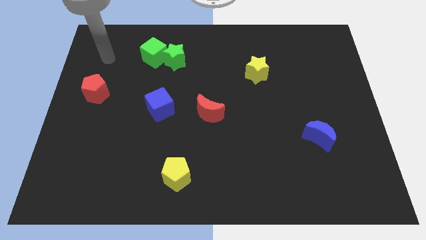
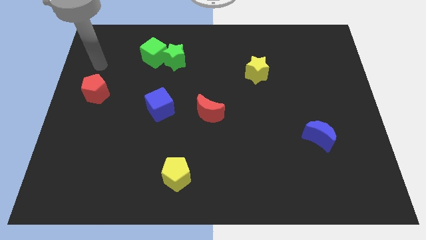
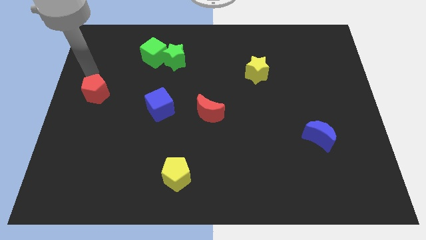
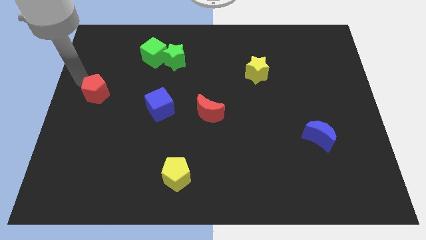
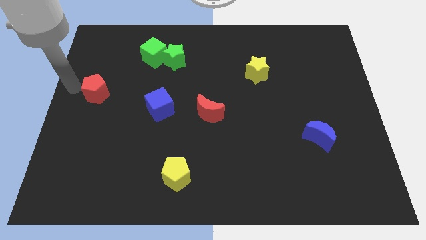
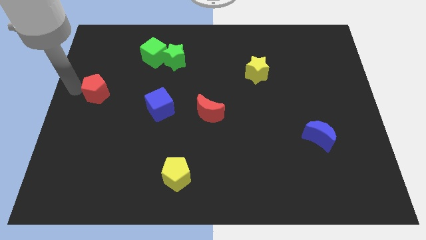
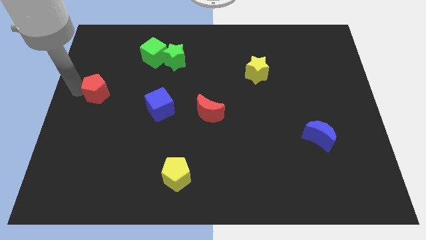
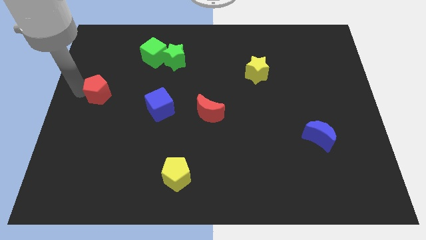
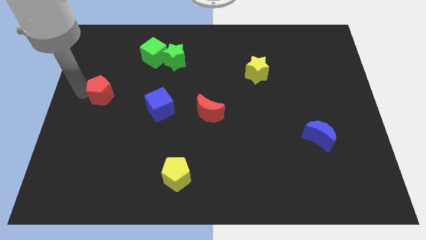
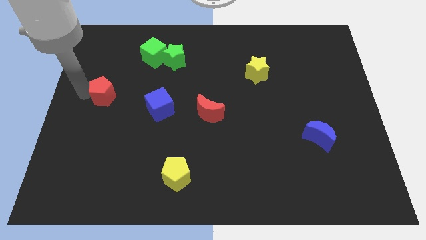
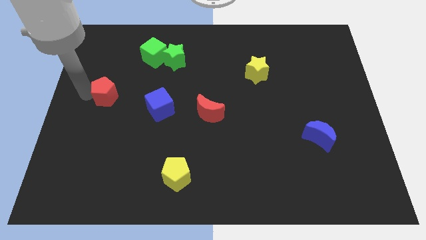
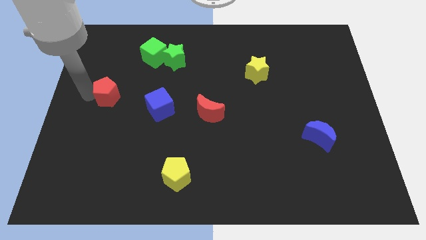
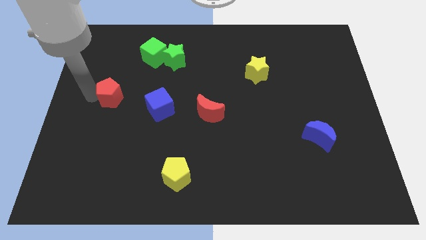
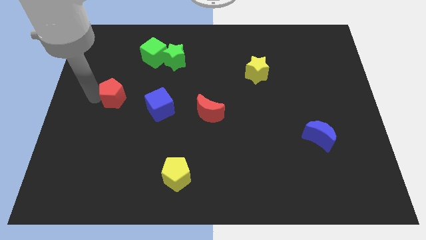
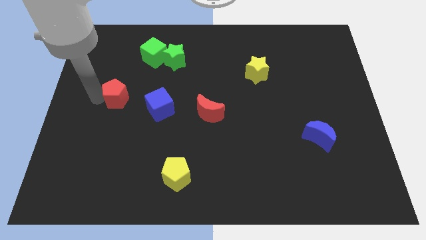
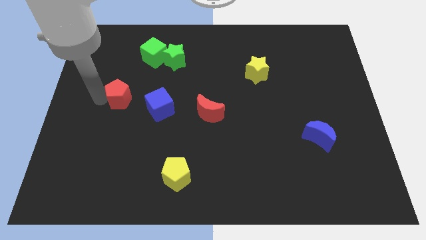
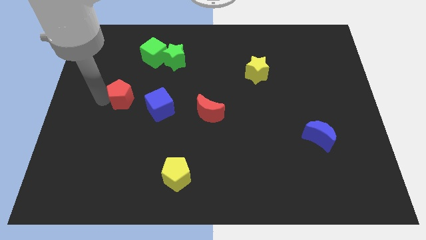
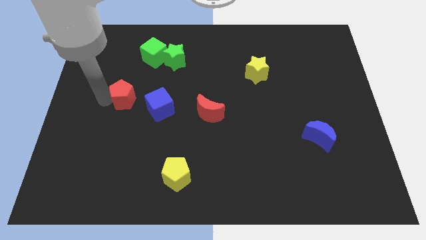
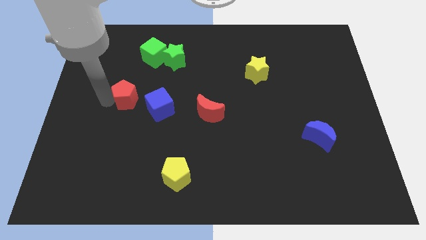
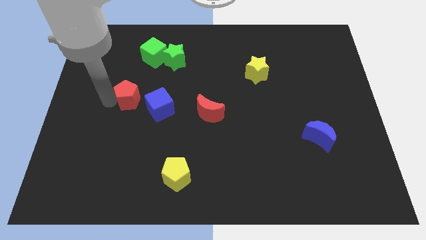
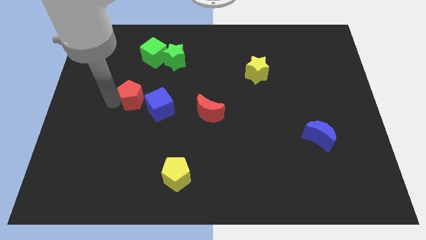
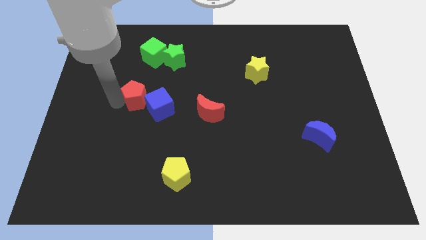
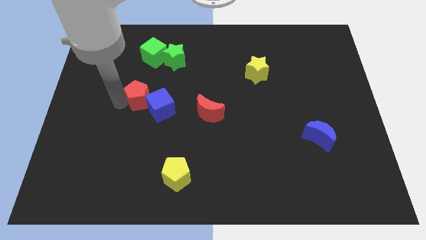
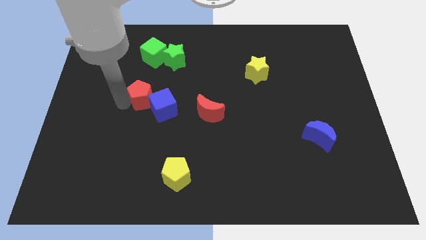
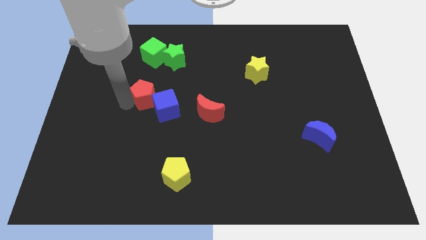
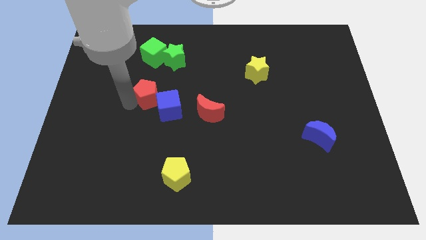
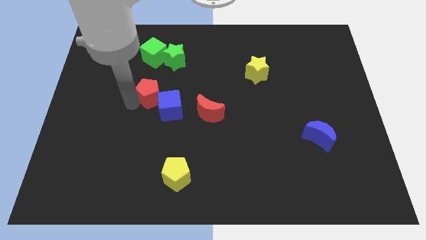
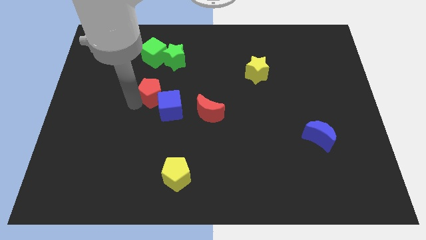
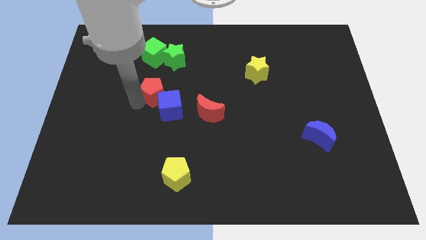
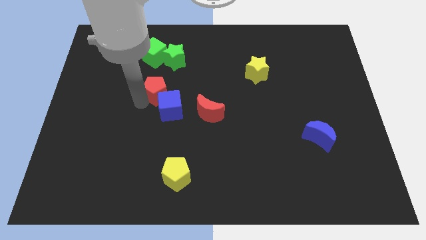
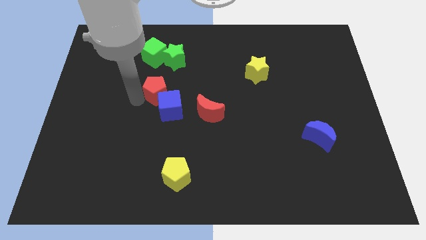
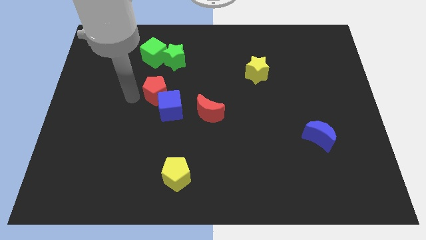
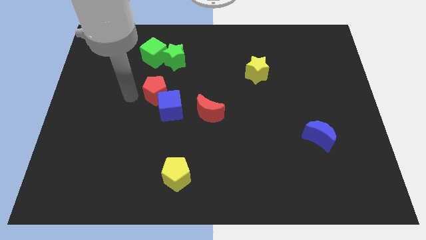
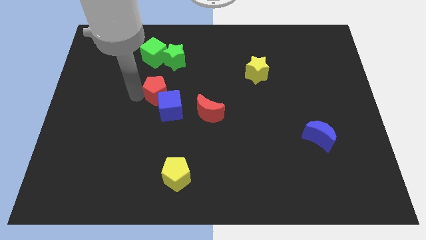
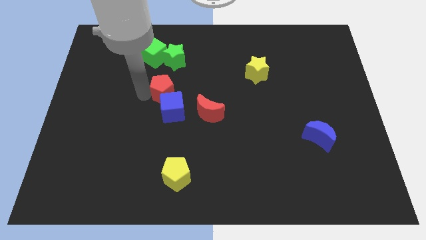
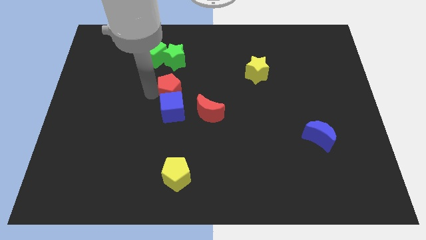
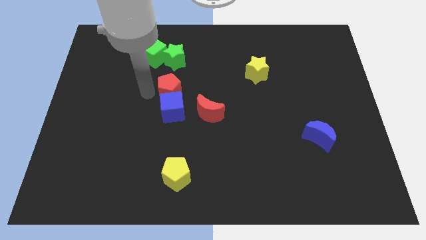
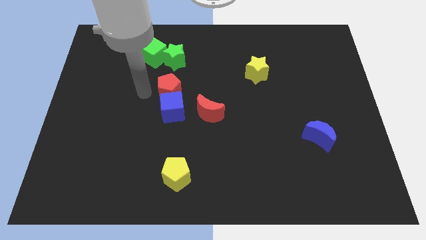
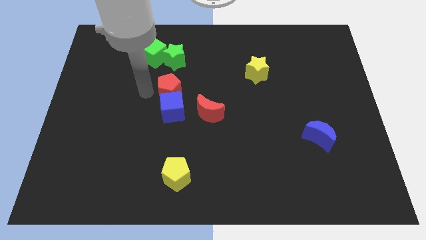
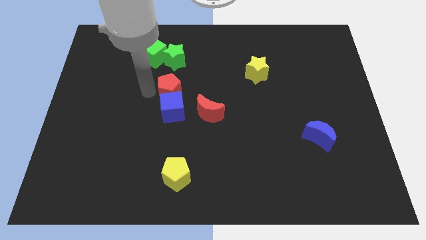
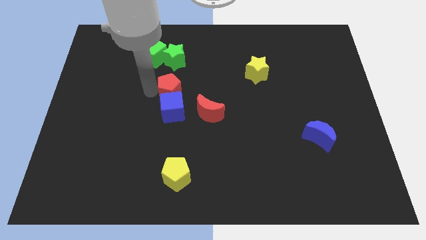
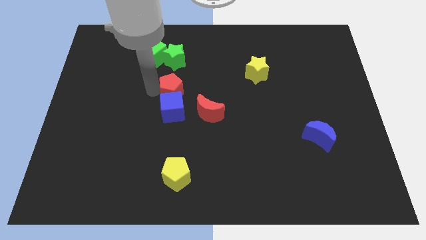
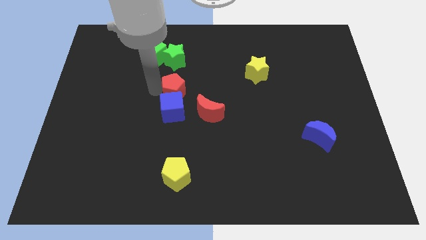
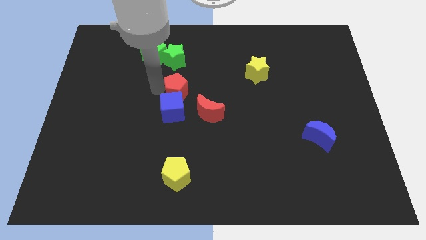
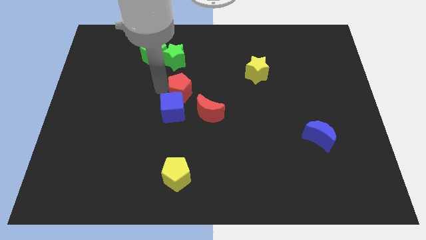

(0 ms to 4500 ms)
push the red pentagon right

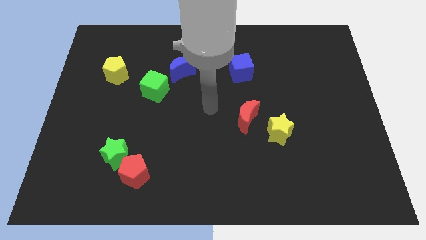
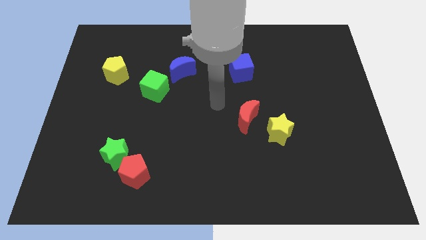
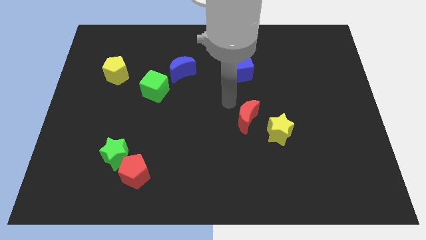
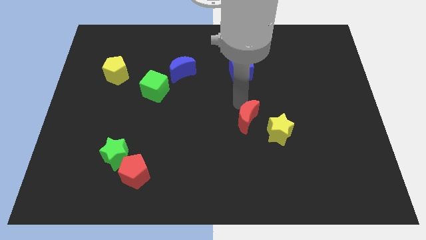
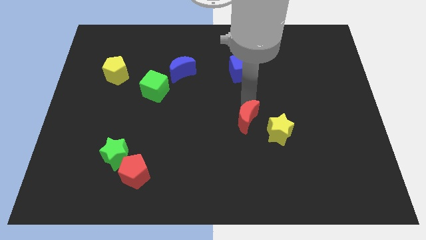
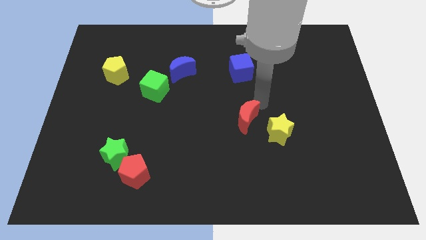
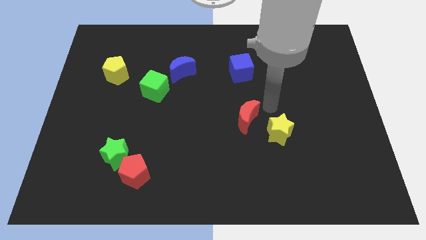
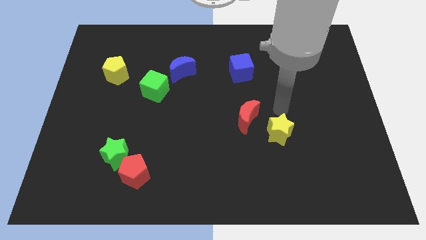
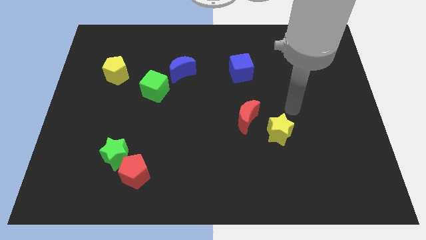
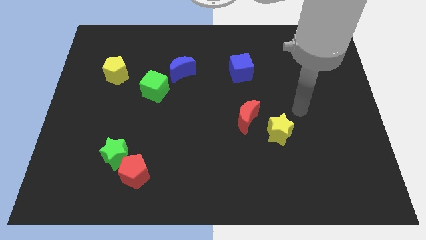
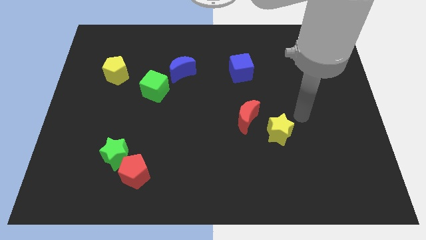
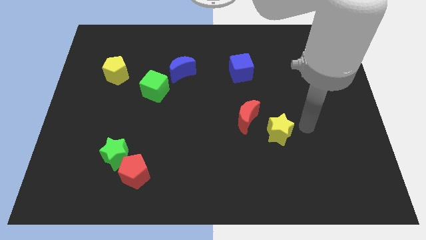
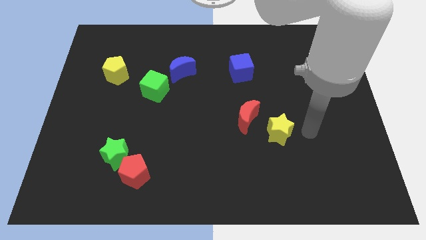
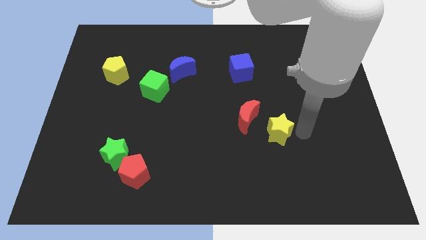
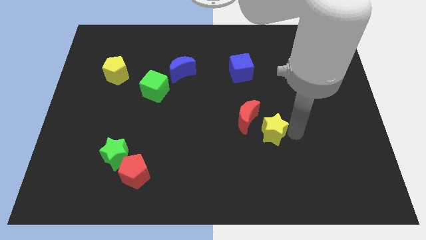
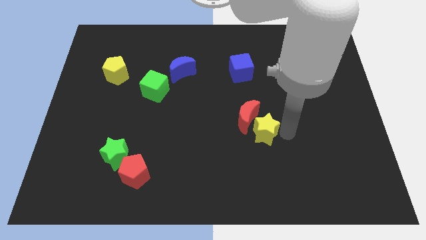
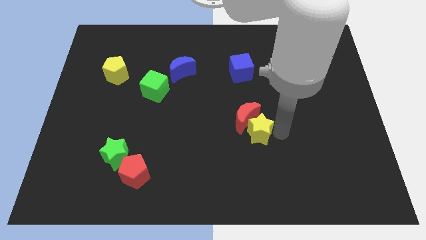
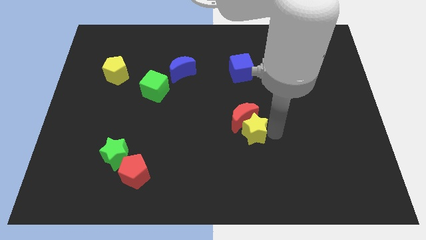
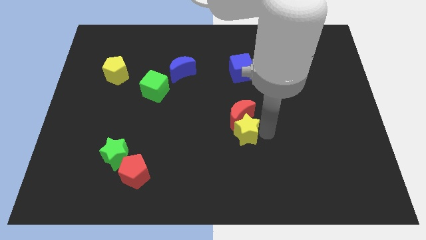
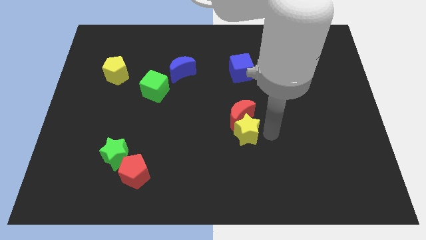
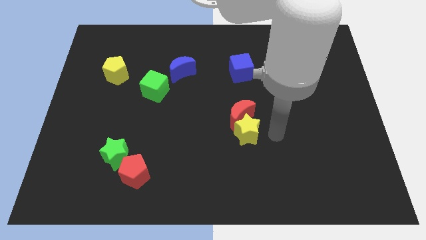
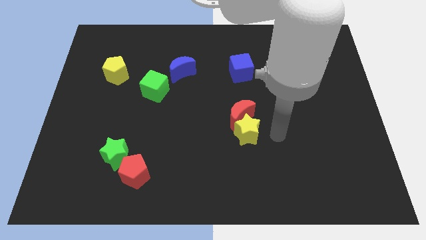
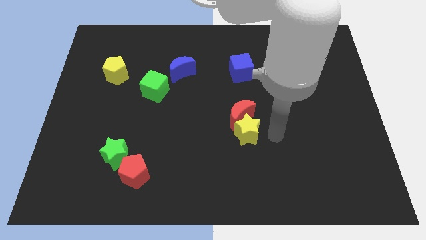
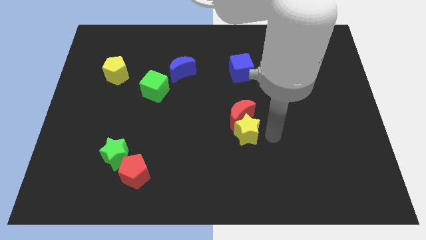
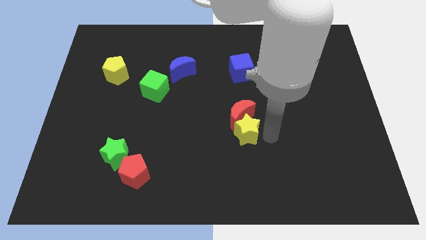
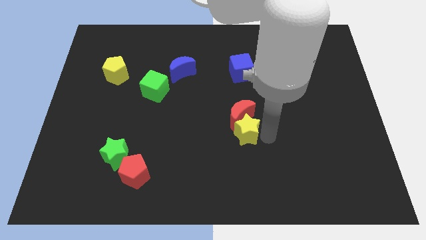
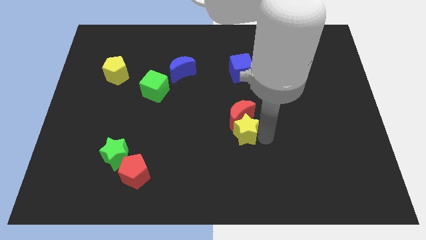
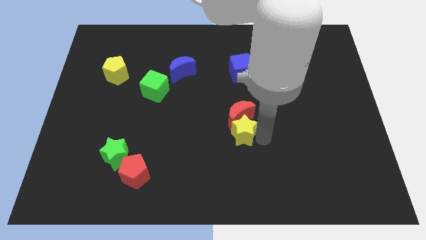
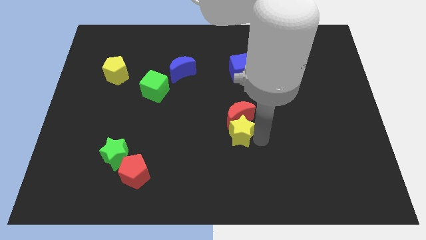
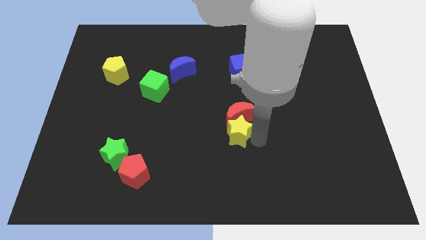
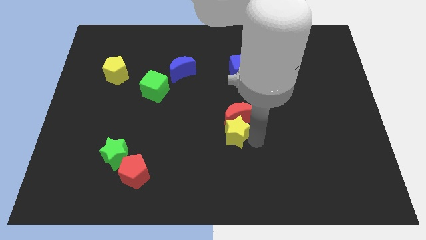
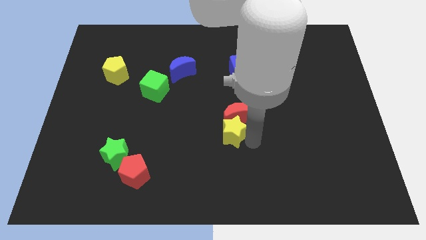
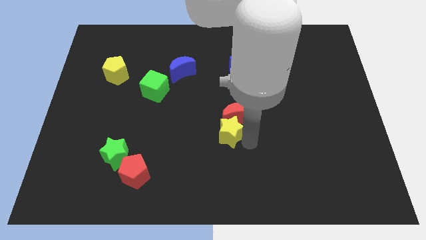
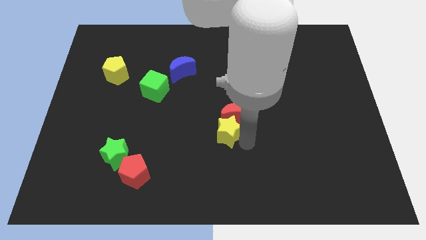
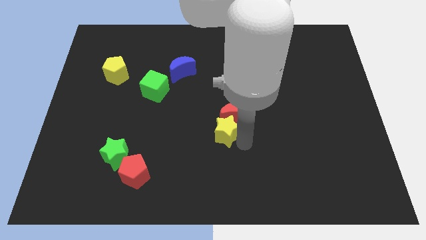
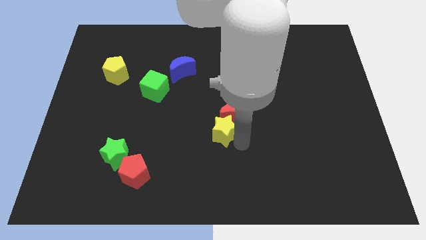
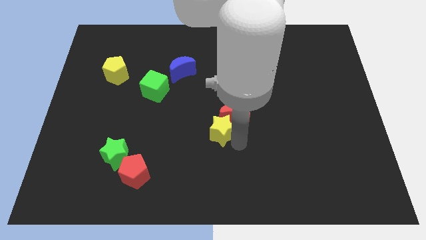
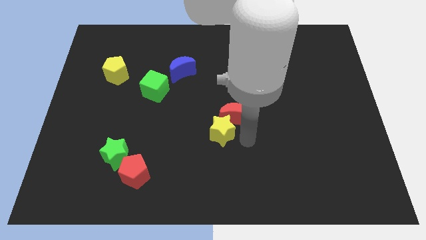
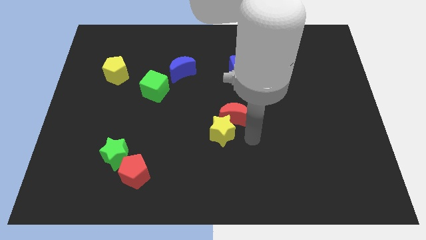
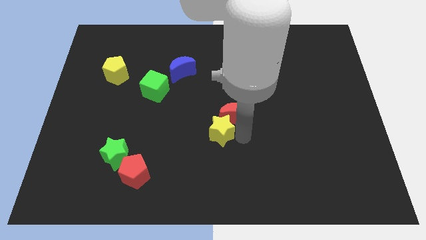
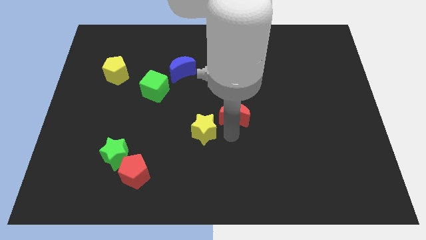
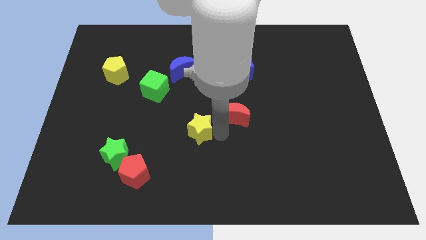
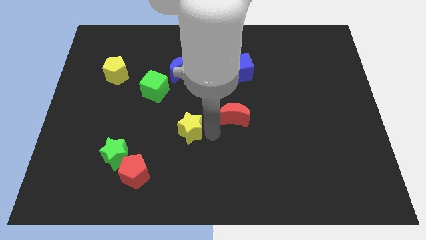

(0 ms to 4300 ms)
move the yellow star to the left
